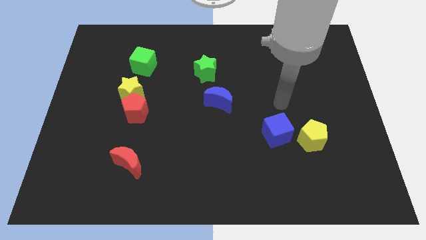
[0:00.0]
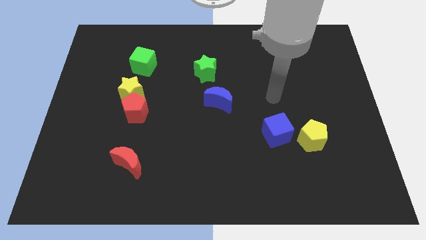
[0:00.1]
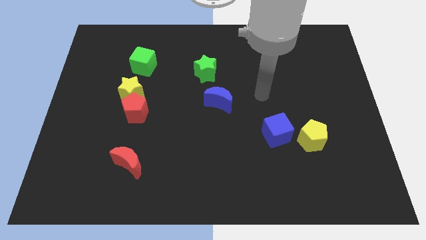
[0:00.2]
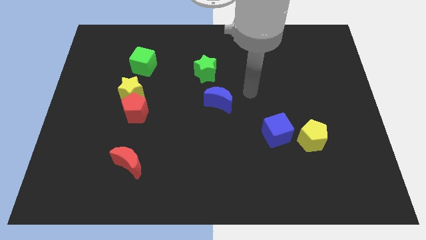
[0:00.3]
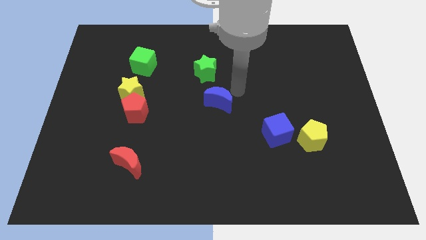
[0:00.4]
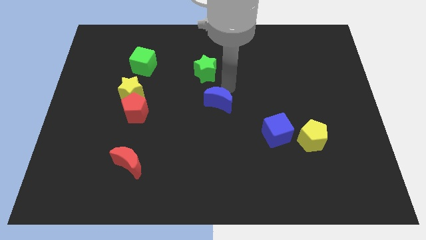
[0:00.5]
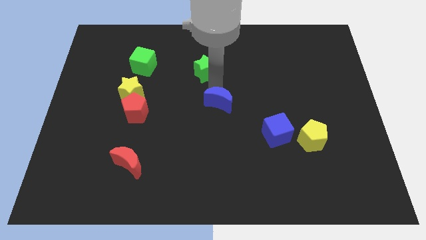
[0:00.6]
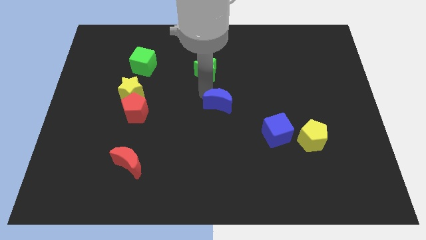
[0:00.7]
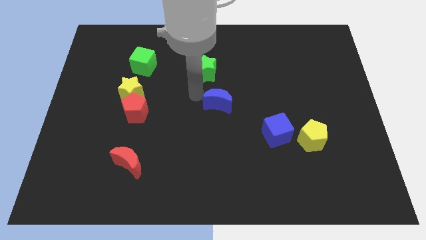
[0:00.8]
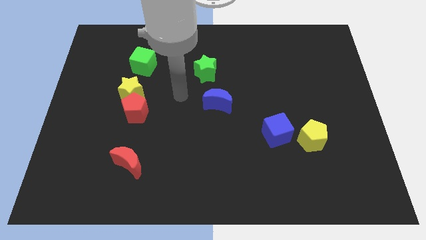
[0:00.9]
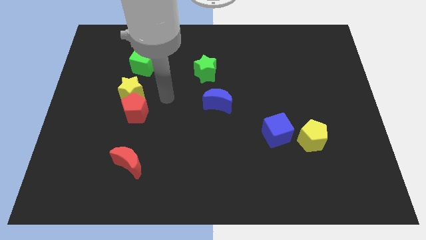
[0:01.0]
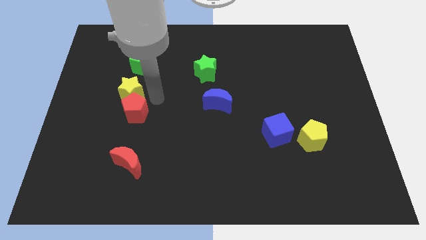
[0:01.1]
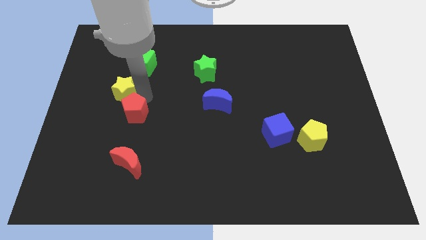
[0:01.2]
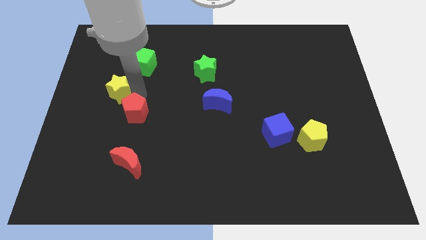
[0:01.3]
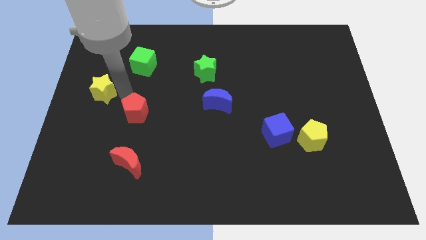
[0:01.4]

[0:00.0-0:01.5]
pull the red pentagon apart from the yellow star

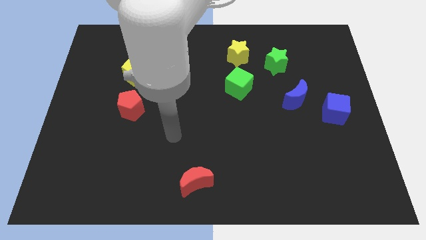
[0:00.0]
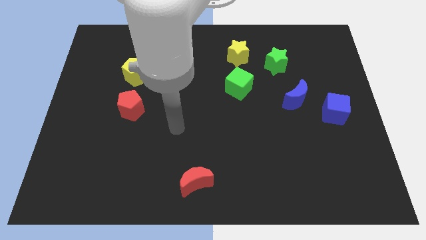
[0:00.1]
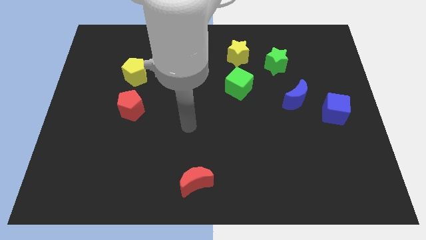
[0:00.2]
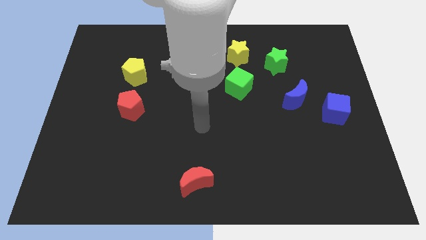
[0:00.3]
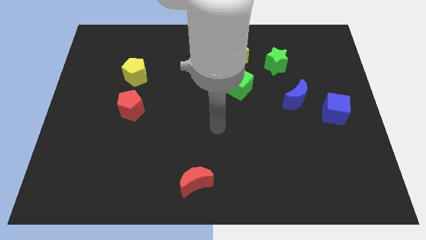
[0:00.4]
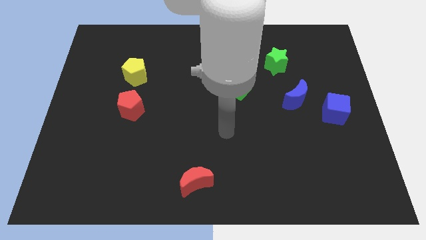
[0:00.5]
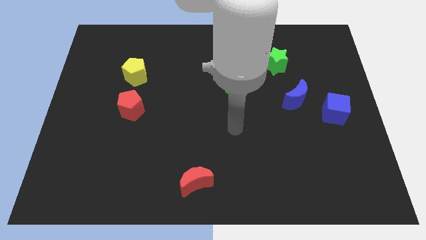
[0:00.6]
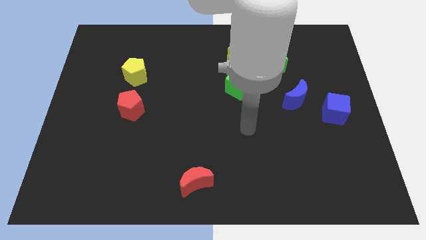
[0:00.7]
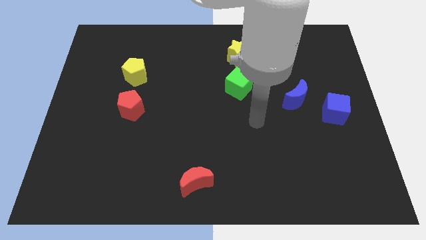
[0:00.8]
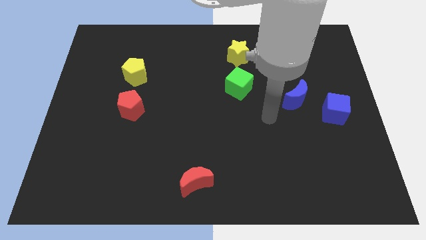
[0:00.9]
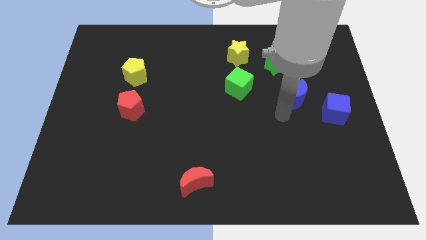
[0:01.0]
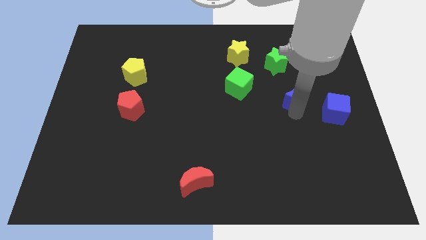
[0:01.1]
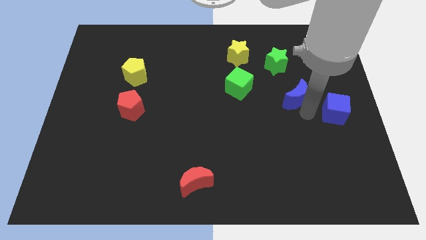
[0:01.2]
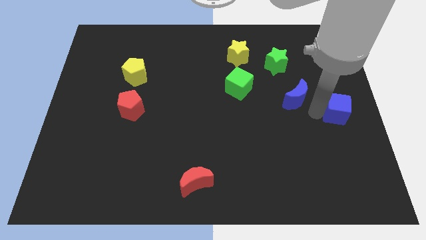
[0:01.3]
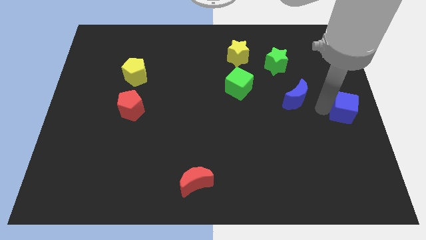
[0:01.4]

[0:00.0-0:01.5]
move the blue moon away from the blue cube

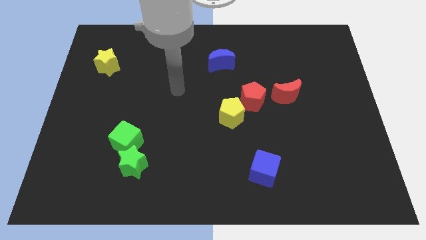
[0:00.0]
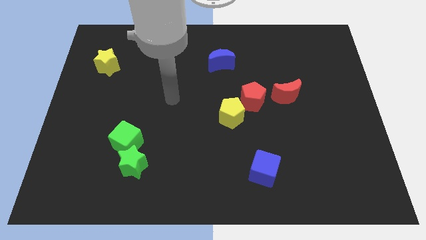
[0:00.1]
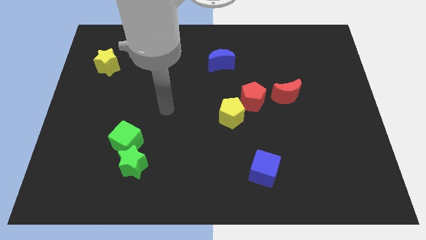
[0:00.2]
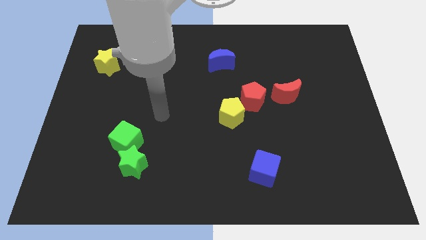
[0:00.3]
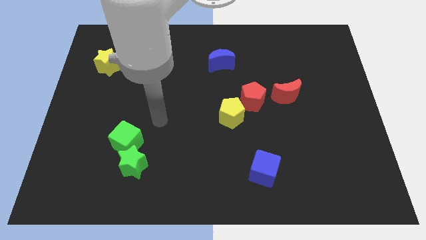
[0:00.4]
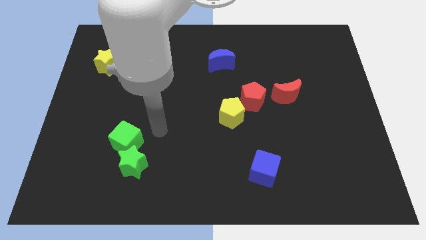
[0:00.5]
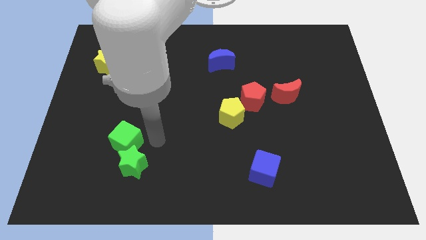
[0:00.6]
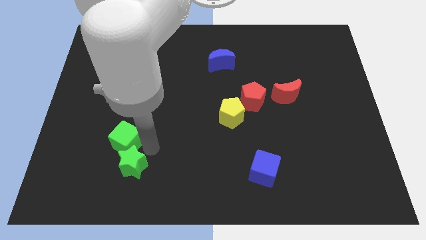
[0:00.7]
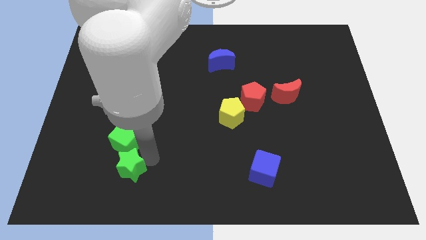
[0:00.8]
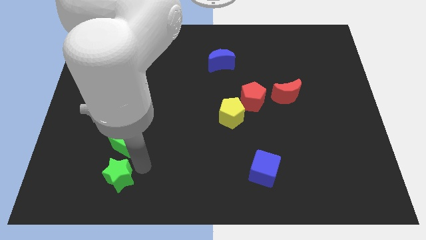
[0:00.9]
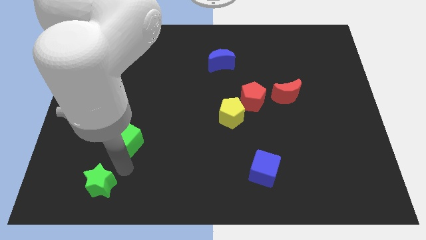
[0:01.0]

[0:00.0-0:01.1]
pull the green cube apart from the green star

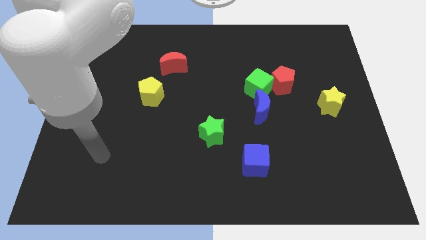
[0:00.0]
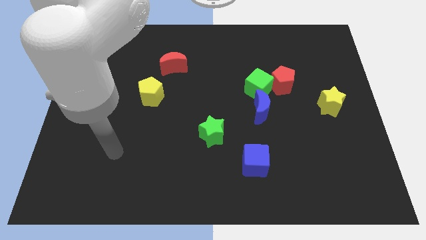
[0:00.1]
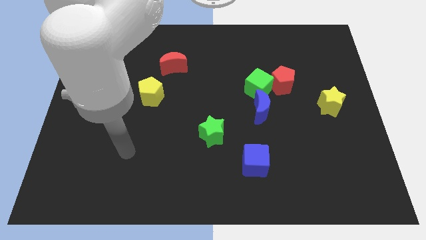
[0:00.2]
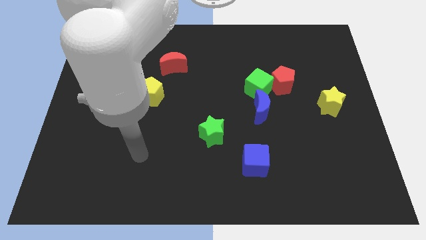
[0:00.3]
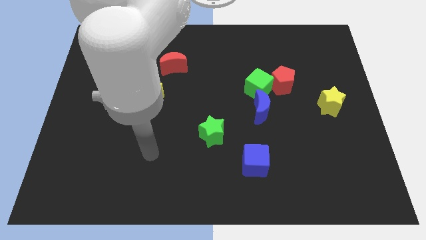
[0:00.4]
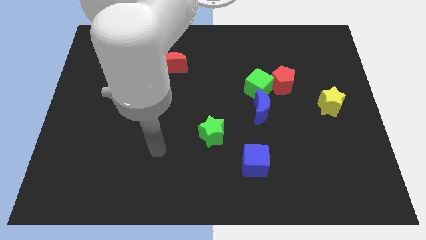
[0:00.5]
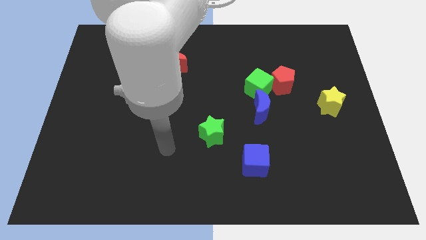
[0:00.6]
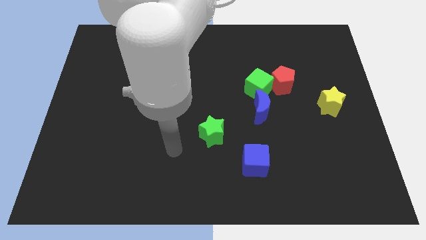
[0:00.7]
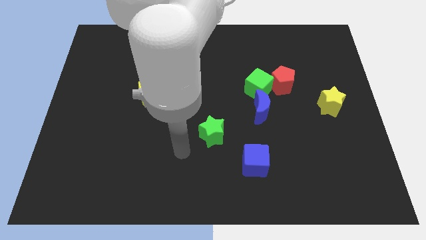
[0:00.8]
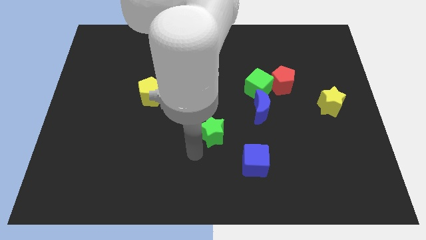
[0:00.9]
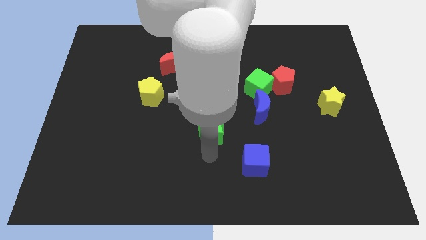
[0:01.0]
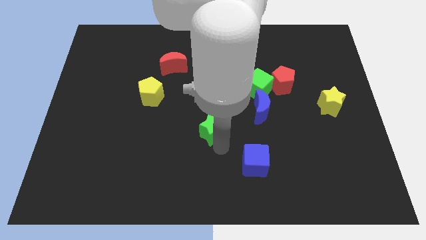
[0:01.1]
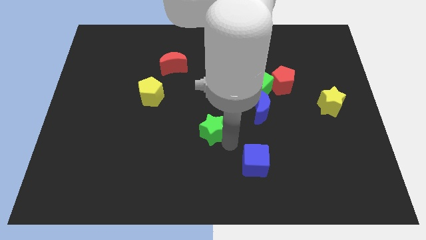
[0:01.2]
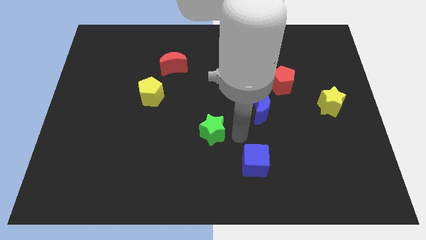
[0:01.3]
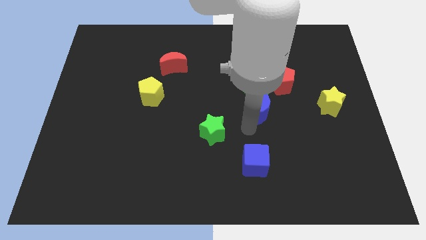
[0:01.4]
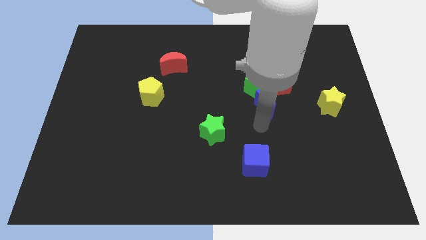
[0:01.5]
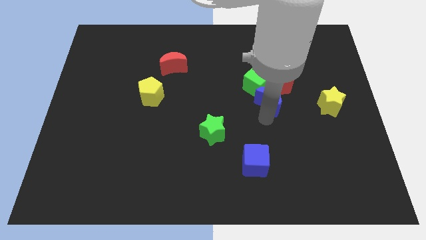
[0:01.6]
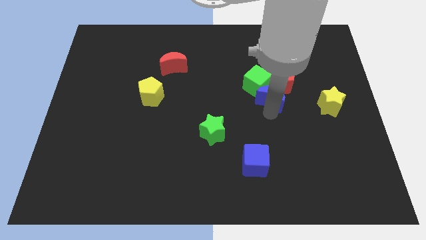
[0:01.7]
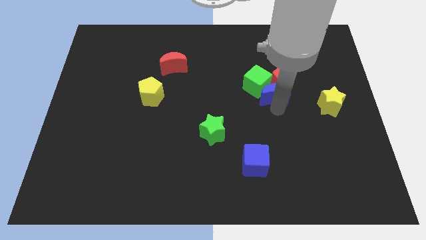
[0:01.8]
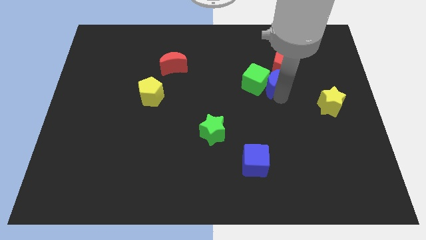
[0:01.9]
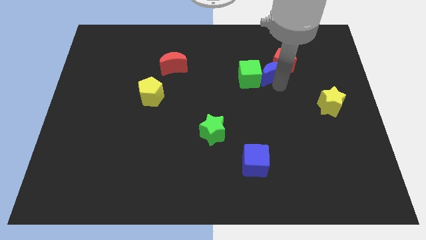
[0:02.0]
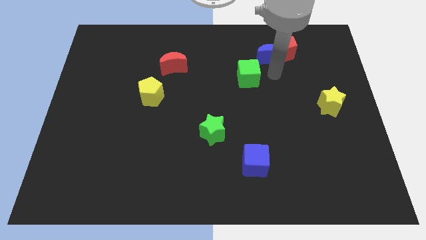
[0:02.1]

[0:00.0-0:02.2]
move the green cube away from the red pentagon and blue moon

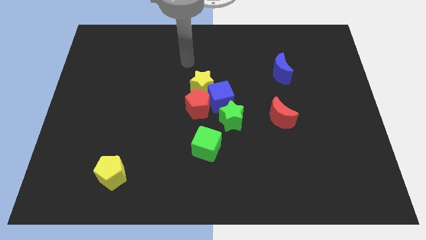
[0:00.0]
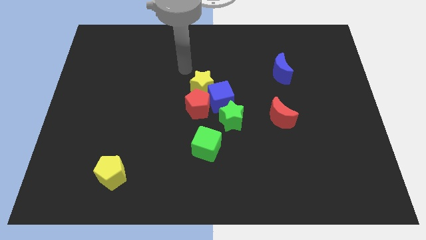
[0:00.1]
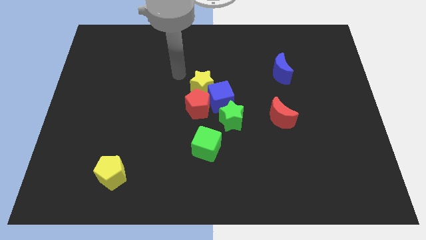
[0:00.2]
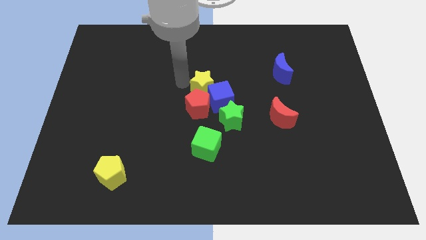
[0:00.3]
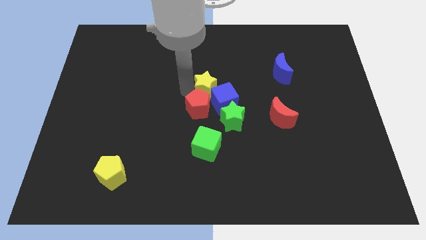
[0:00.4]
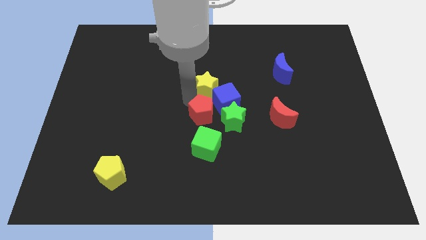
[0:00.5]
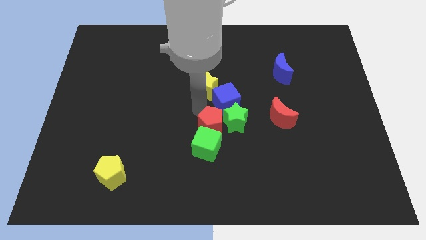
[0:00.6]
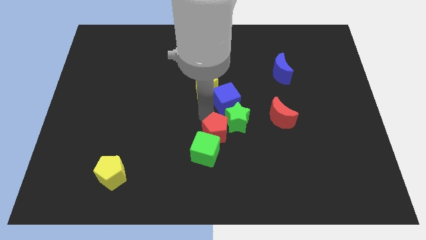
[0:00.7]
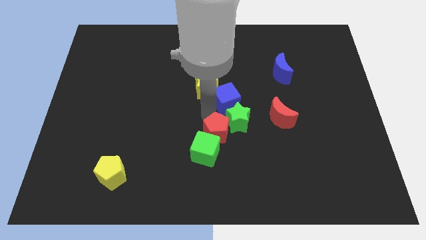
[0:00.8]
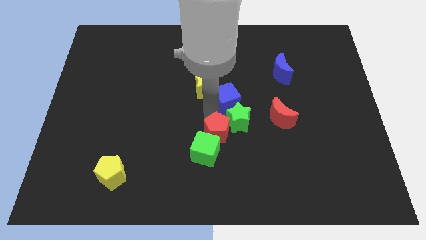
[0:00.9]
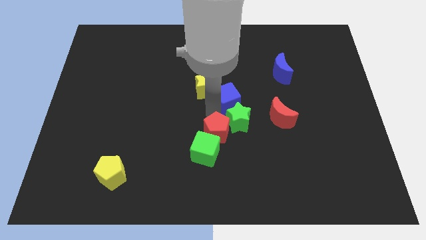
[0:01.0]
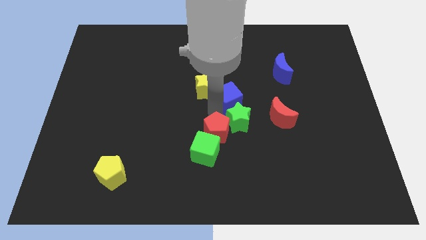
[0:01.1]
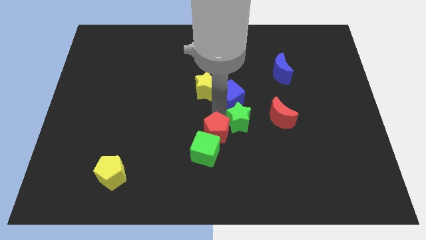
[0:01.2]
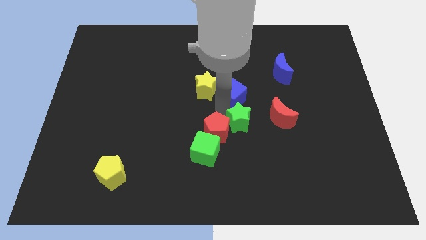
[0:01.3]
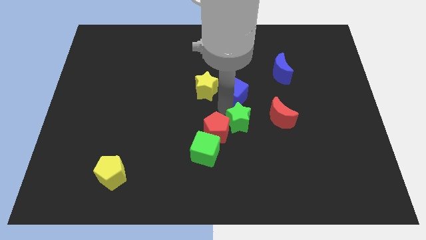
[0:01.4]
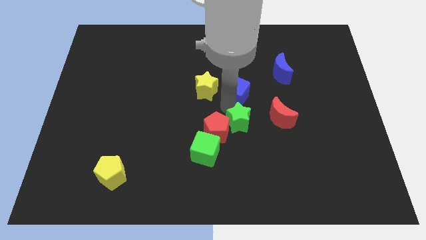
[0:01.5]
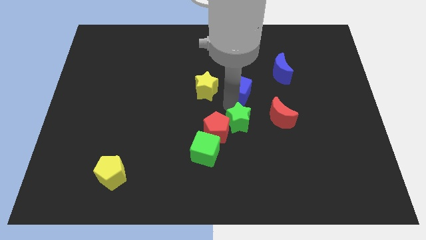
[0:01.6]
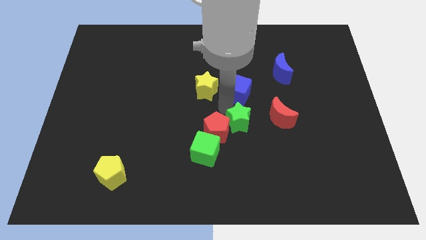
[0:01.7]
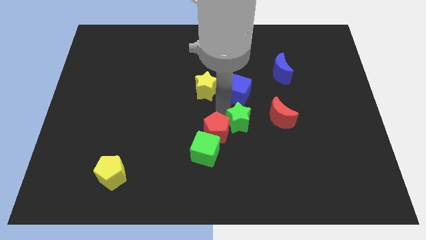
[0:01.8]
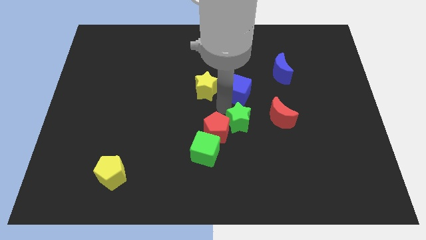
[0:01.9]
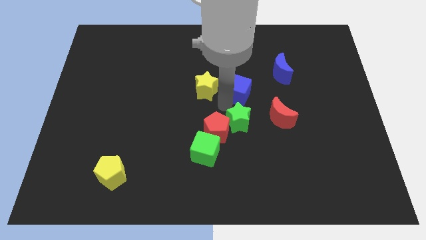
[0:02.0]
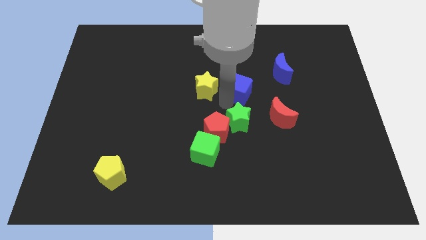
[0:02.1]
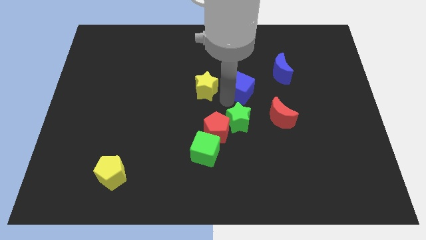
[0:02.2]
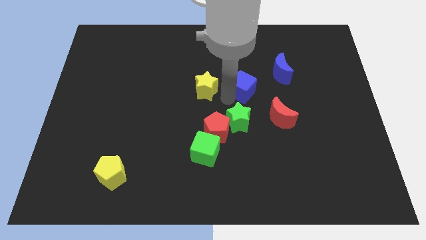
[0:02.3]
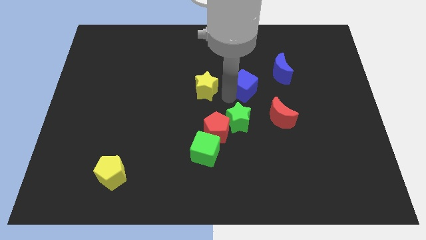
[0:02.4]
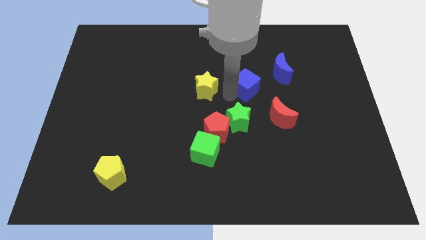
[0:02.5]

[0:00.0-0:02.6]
pull the blue cube apart from the red pentagon, yellow star, and green star

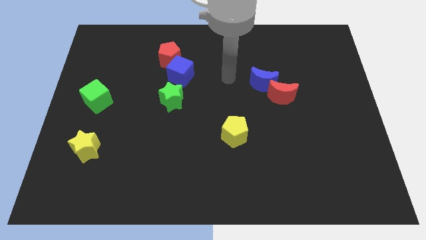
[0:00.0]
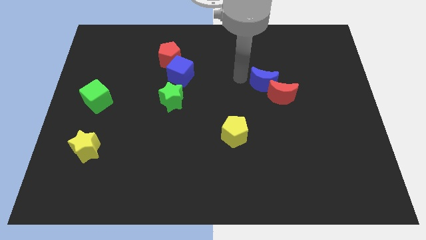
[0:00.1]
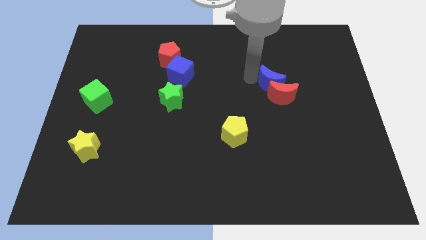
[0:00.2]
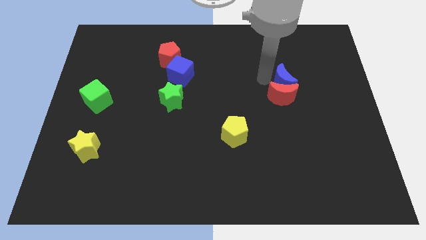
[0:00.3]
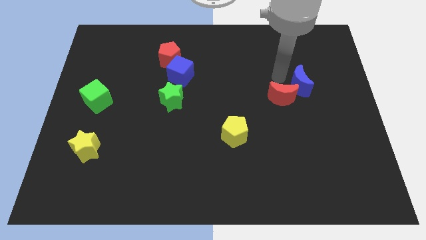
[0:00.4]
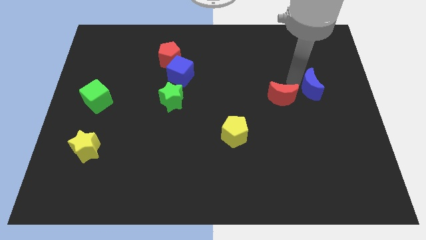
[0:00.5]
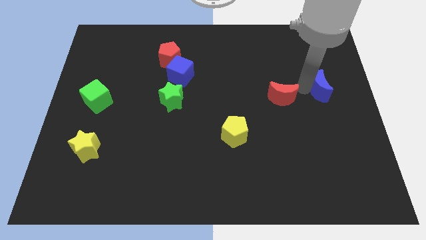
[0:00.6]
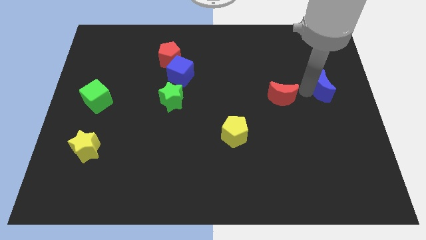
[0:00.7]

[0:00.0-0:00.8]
separate the red moon from the blue moon
